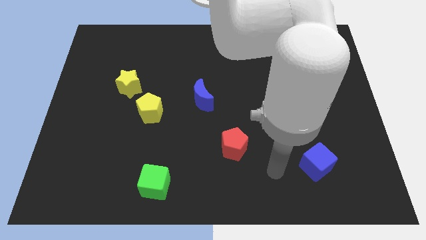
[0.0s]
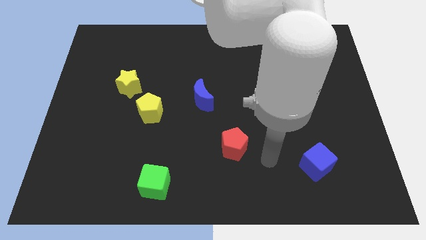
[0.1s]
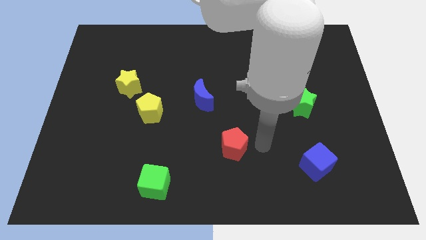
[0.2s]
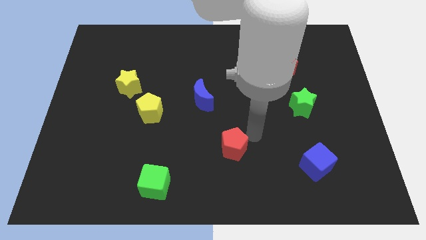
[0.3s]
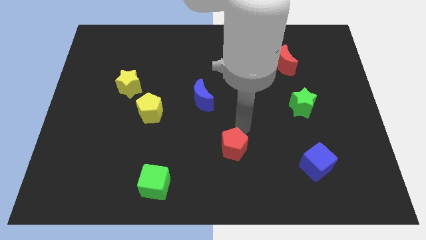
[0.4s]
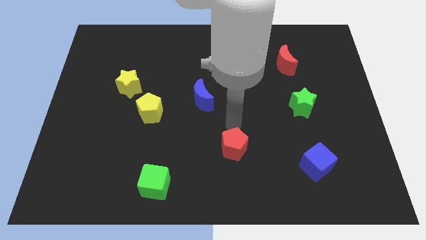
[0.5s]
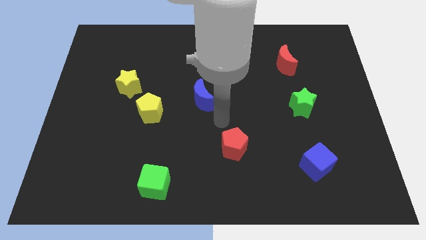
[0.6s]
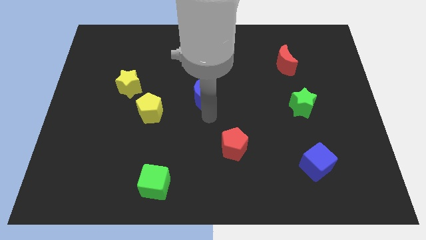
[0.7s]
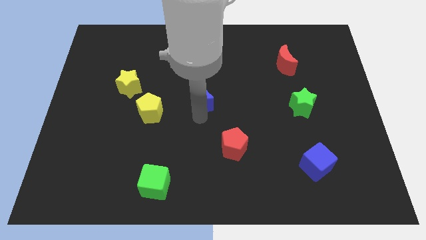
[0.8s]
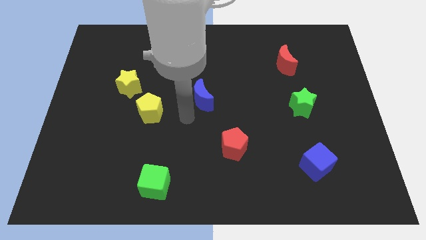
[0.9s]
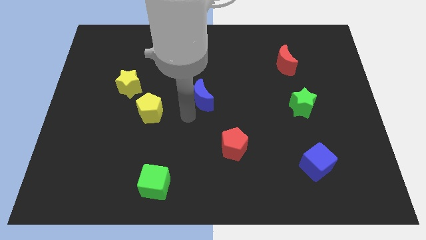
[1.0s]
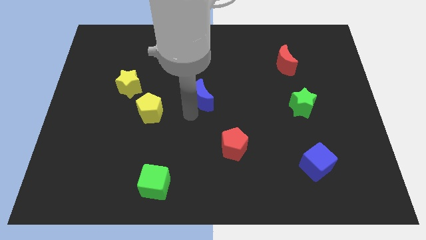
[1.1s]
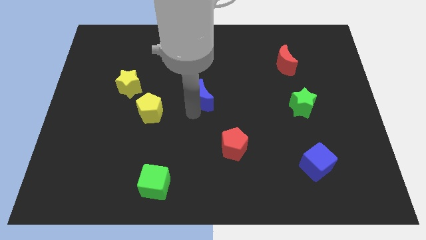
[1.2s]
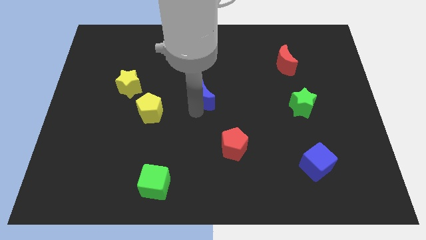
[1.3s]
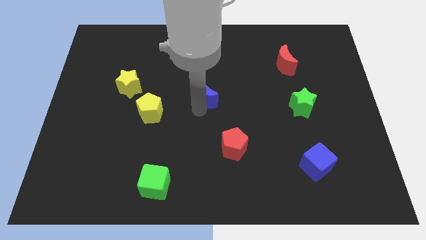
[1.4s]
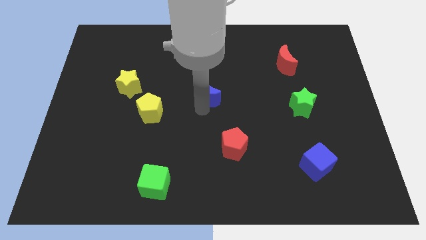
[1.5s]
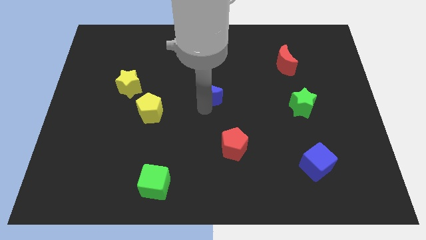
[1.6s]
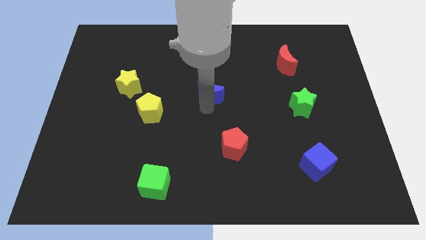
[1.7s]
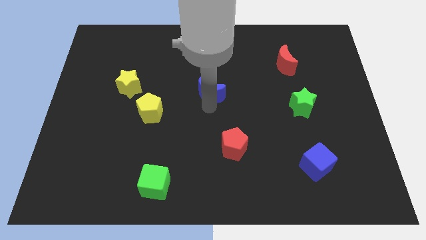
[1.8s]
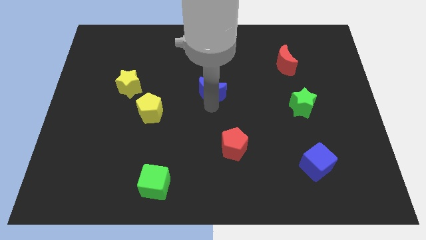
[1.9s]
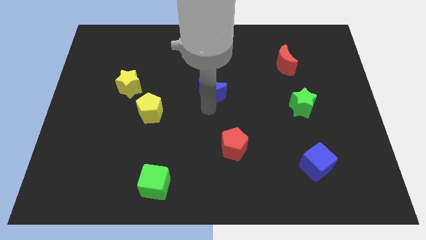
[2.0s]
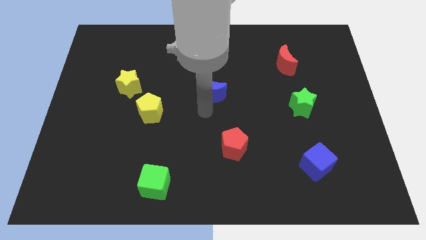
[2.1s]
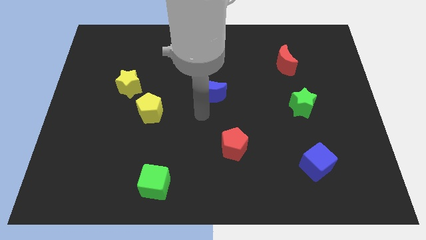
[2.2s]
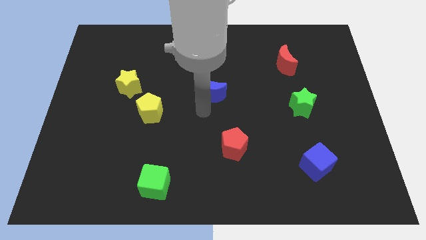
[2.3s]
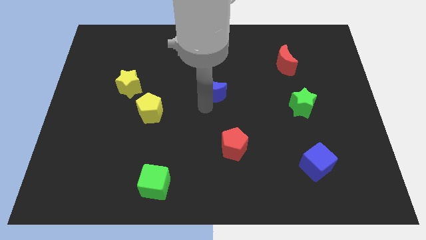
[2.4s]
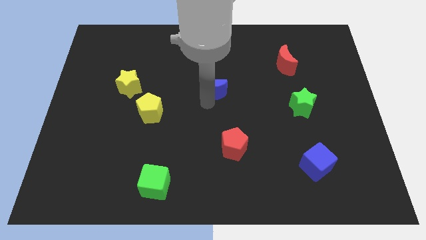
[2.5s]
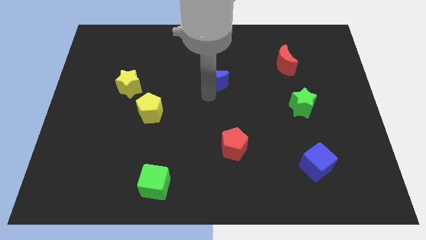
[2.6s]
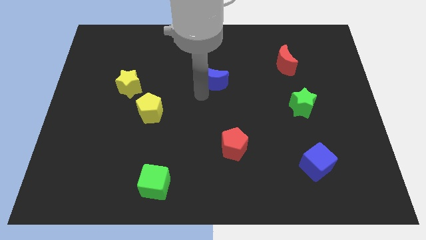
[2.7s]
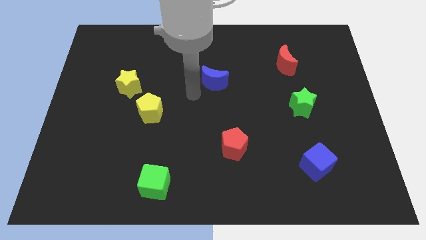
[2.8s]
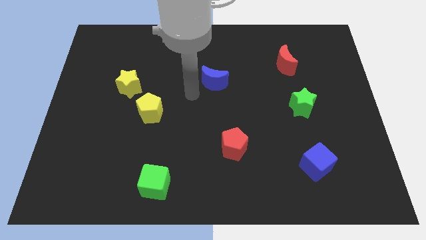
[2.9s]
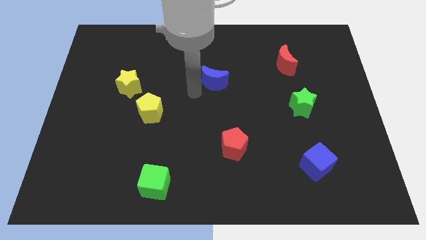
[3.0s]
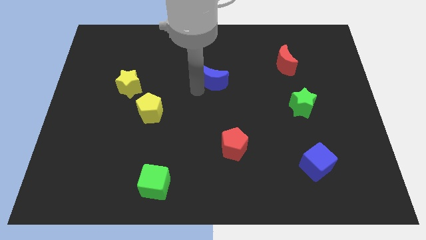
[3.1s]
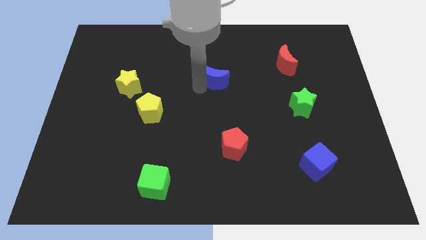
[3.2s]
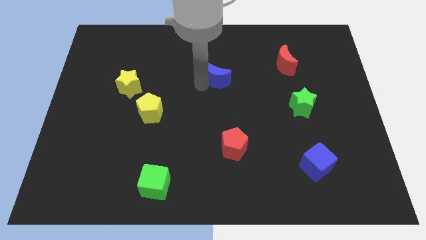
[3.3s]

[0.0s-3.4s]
slide the blue moon upwards and right somewhat

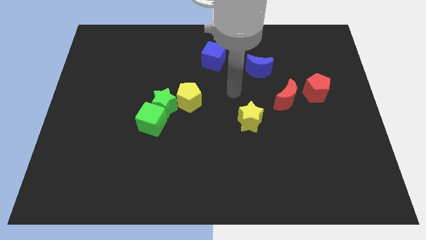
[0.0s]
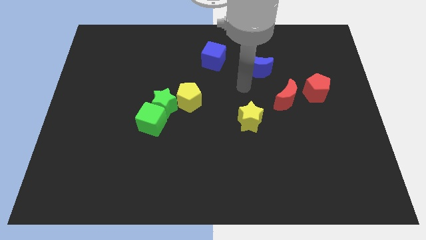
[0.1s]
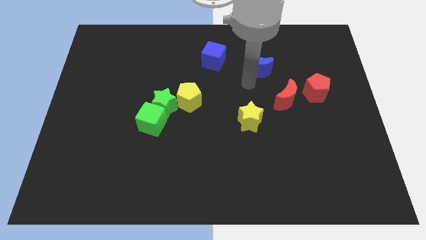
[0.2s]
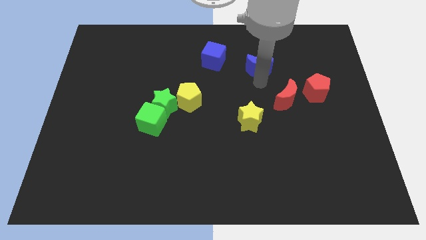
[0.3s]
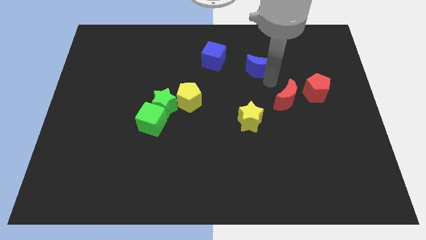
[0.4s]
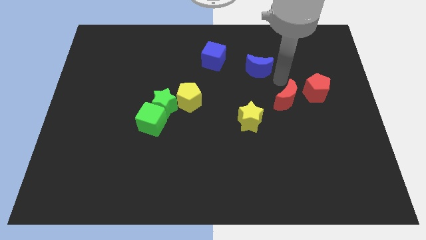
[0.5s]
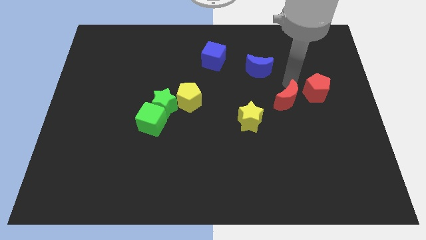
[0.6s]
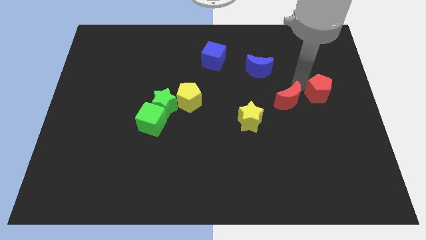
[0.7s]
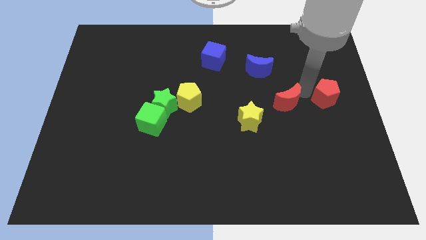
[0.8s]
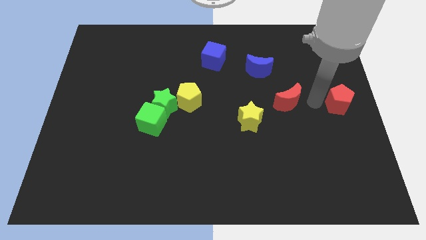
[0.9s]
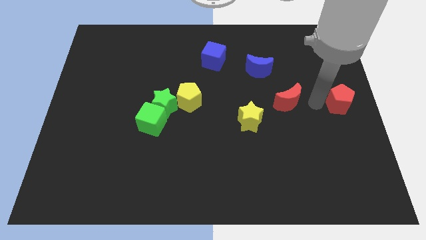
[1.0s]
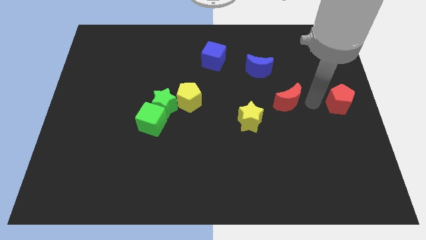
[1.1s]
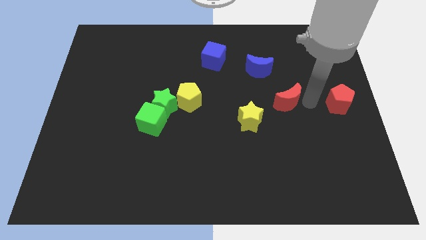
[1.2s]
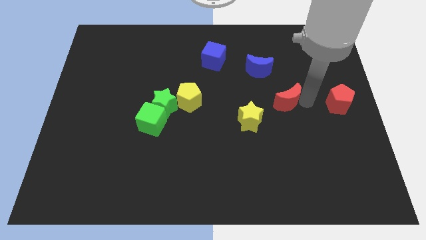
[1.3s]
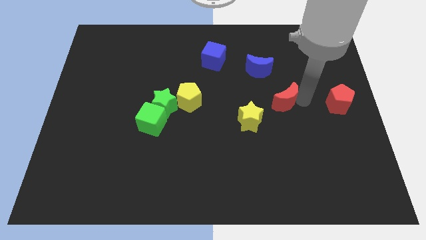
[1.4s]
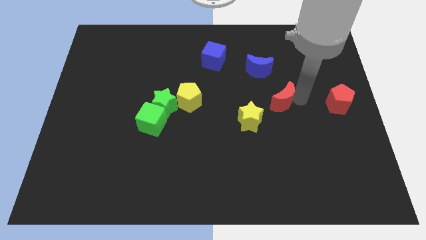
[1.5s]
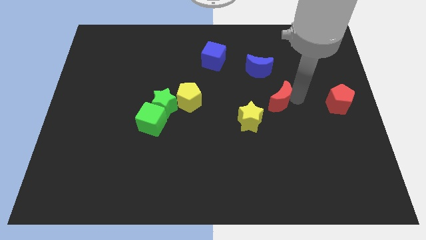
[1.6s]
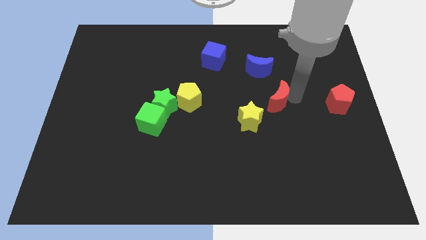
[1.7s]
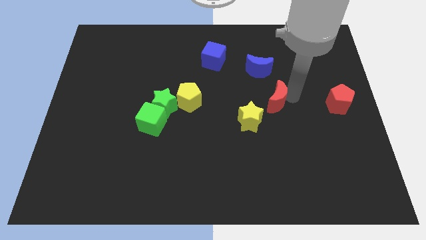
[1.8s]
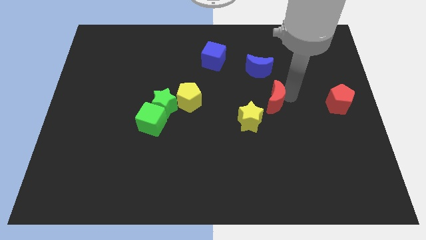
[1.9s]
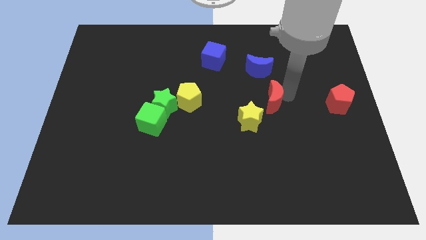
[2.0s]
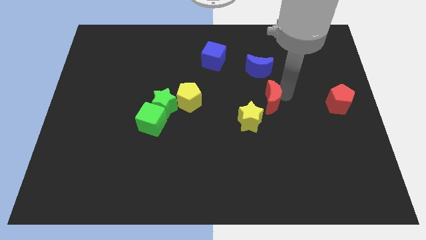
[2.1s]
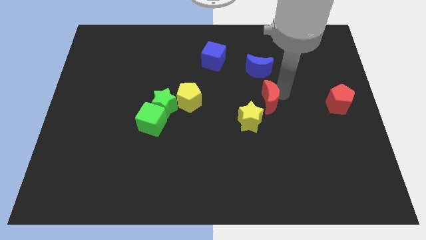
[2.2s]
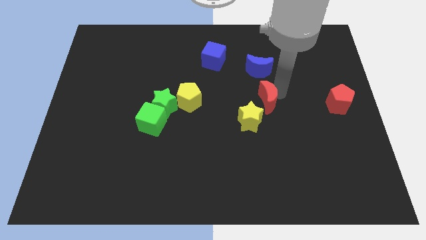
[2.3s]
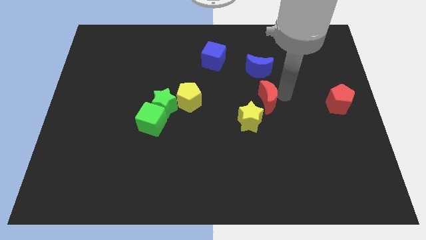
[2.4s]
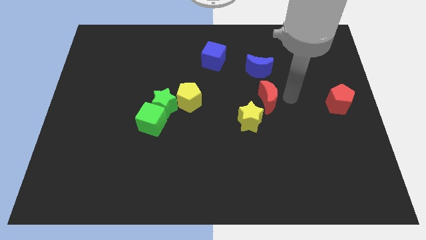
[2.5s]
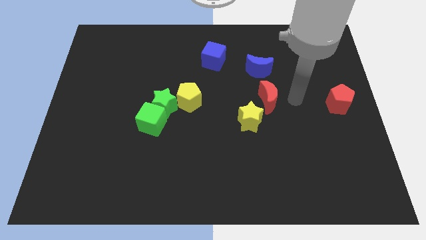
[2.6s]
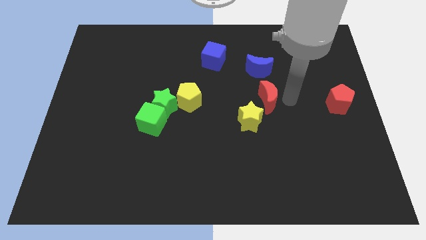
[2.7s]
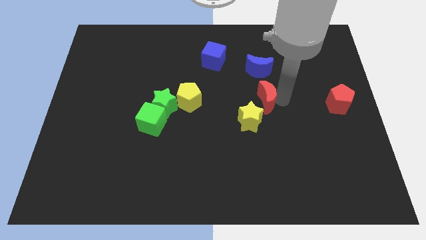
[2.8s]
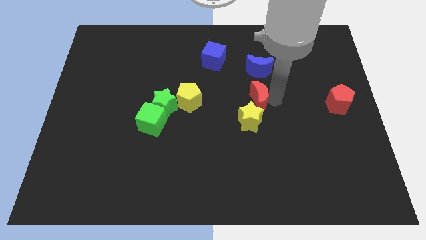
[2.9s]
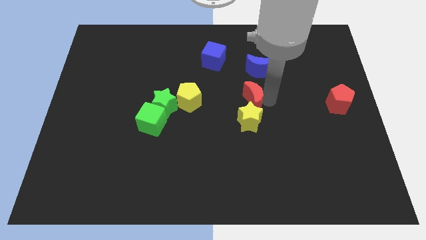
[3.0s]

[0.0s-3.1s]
slide the red moon somewhat to the left

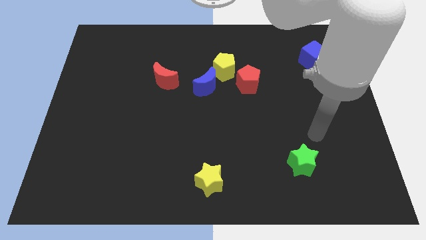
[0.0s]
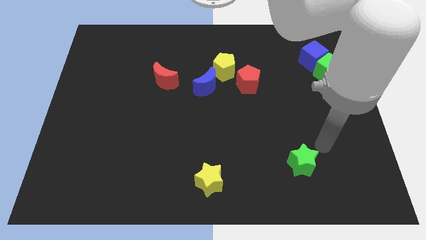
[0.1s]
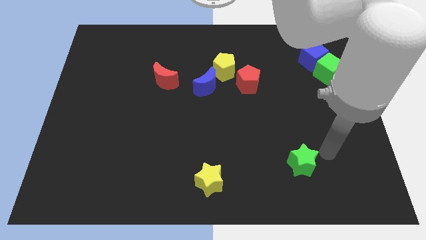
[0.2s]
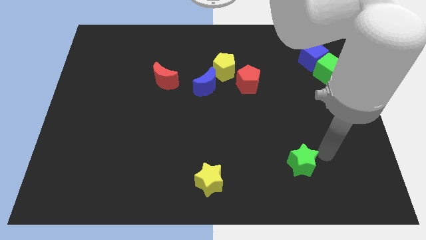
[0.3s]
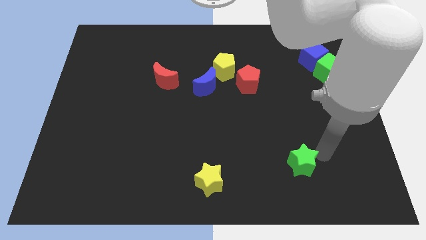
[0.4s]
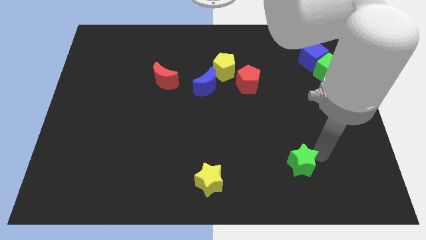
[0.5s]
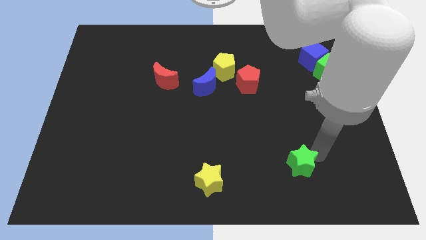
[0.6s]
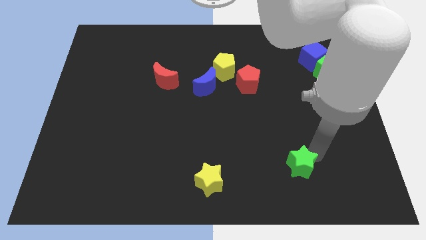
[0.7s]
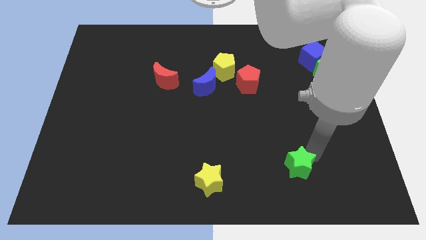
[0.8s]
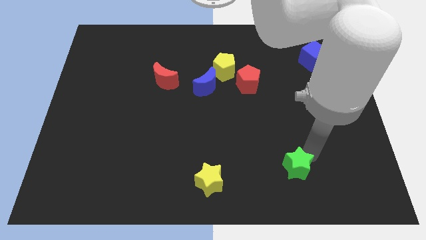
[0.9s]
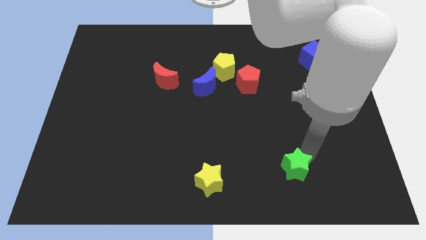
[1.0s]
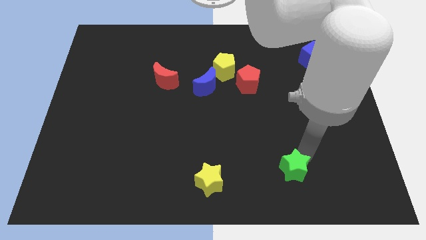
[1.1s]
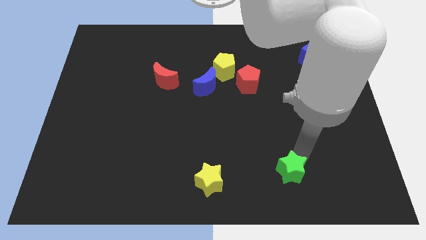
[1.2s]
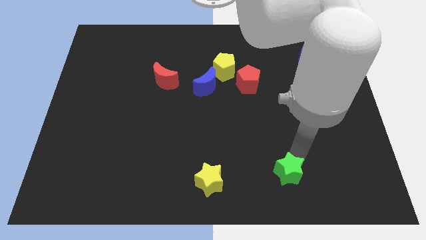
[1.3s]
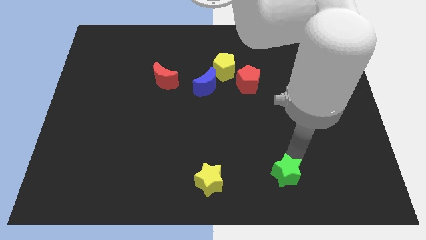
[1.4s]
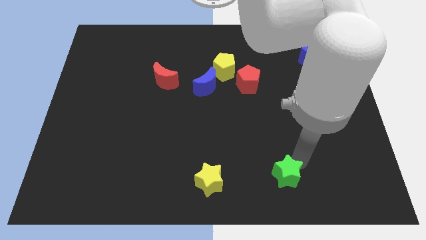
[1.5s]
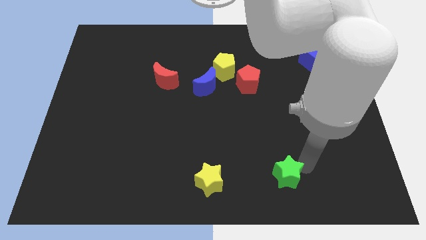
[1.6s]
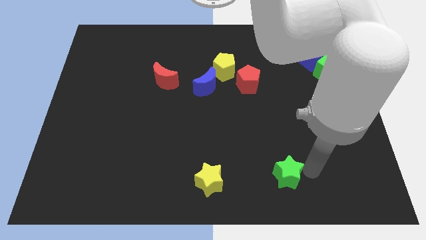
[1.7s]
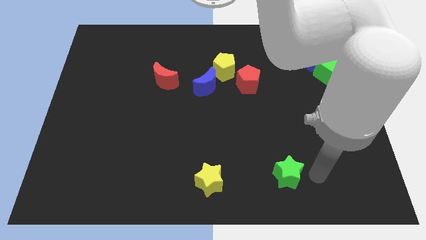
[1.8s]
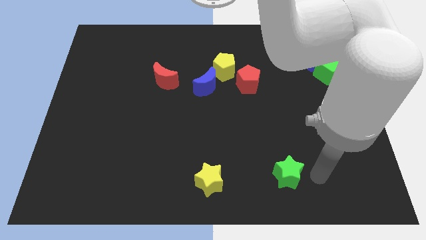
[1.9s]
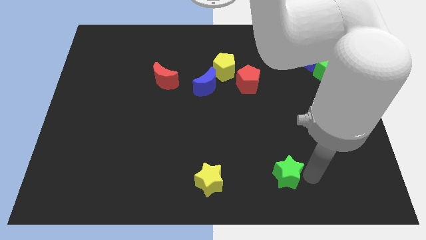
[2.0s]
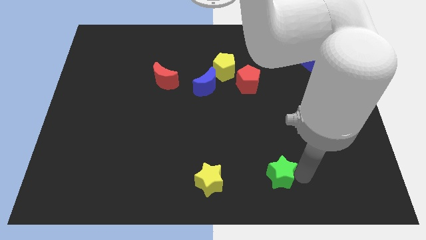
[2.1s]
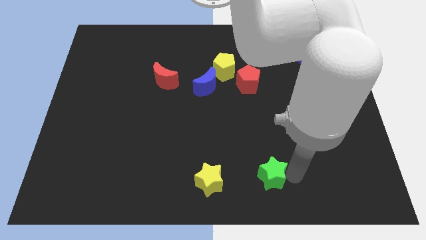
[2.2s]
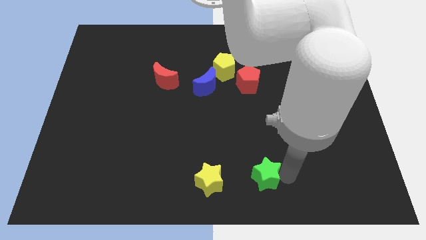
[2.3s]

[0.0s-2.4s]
slightly move the green star left
